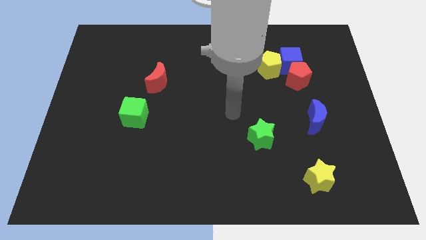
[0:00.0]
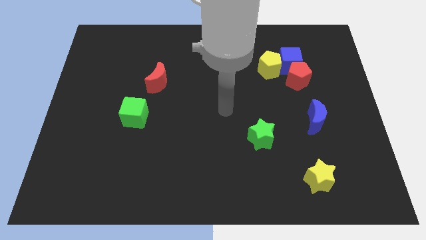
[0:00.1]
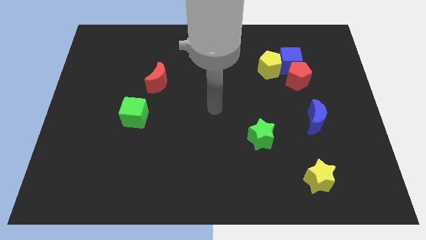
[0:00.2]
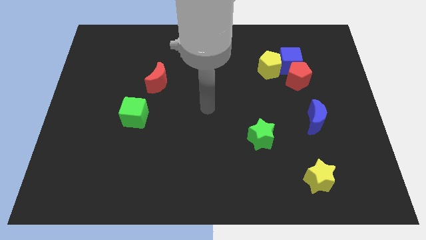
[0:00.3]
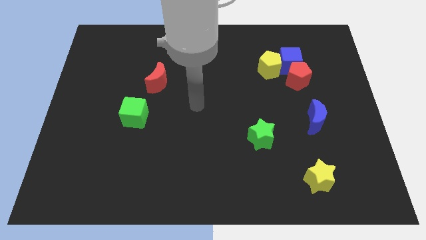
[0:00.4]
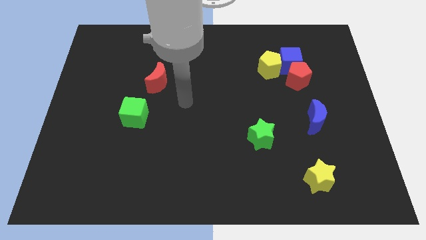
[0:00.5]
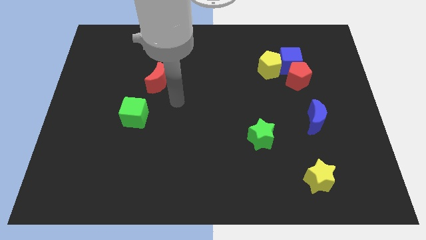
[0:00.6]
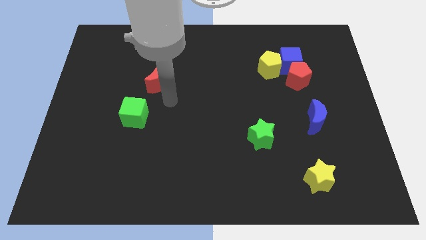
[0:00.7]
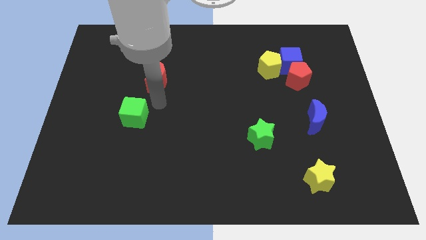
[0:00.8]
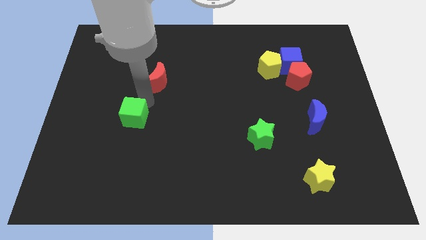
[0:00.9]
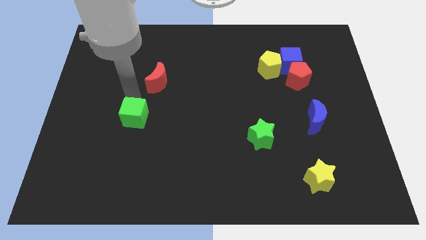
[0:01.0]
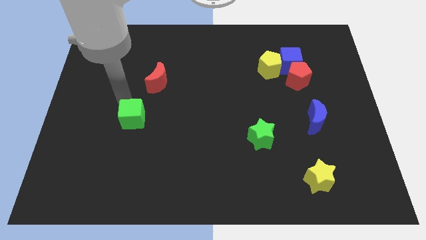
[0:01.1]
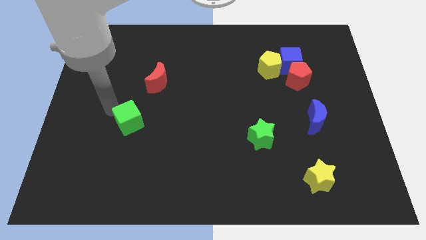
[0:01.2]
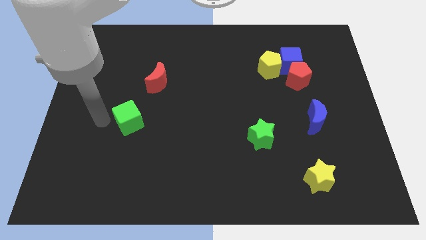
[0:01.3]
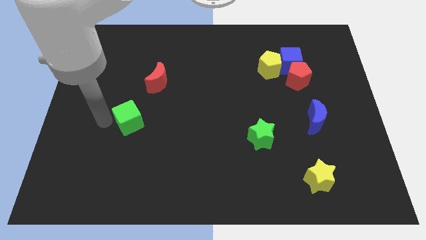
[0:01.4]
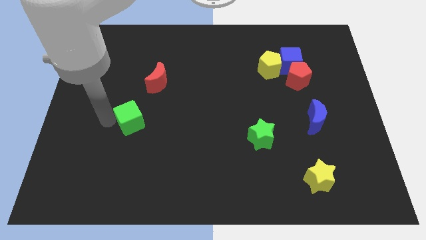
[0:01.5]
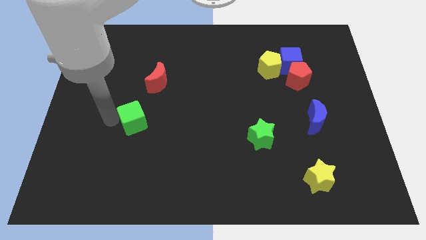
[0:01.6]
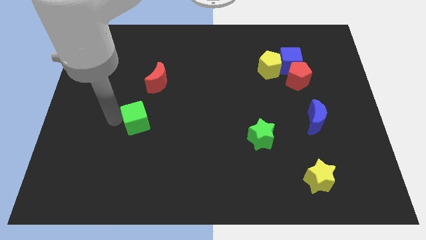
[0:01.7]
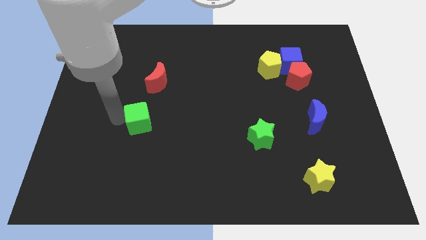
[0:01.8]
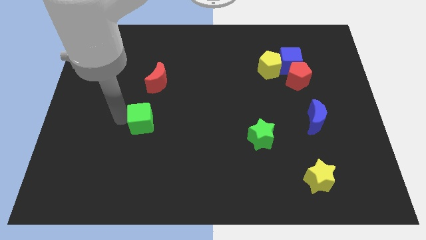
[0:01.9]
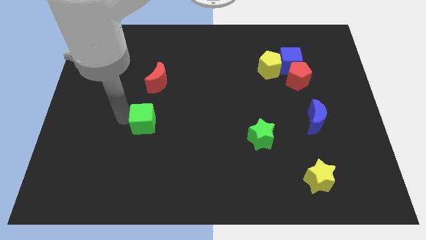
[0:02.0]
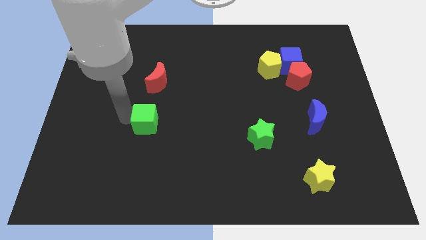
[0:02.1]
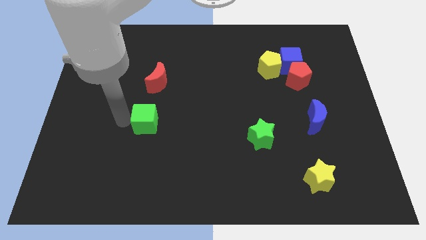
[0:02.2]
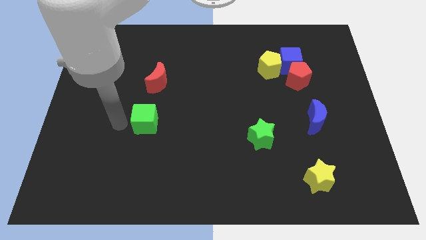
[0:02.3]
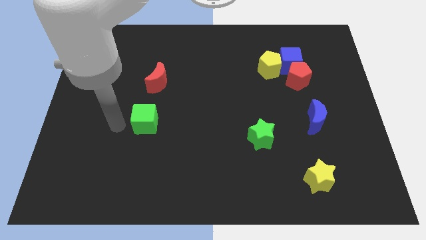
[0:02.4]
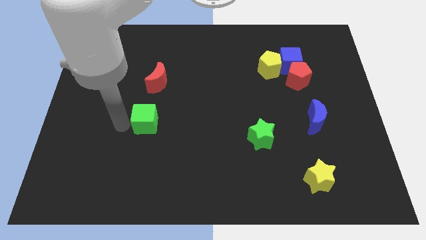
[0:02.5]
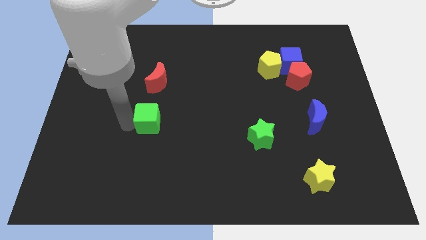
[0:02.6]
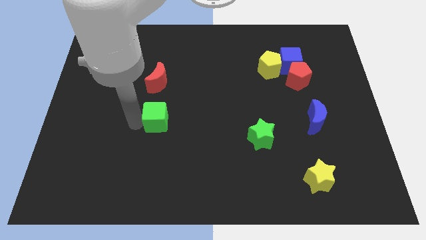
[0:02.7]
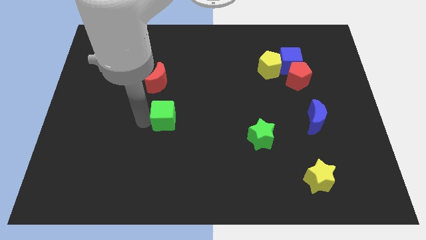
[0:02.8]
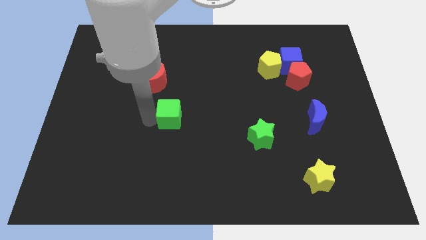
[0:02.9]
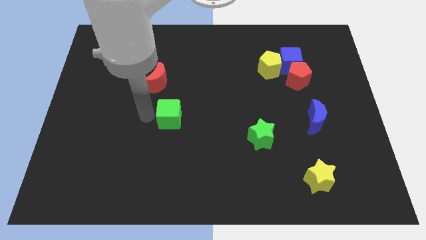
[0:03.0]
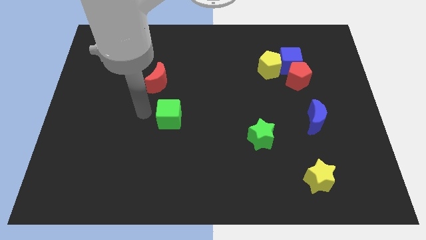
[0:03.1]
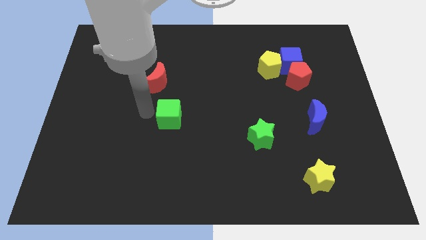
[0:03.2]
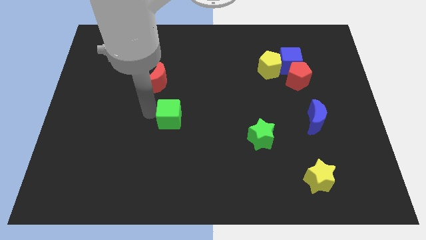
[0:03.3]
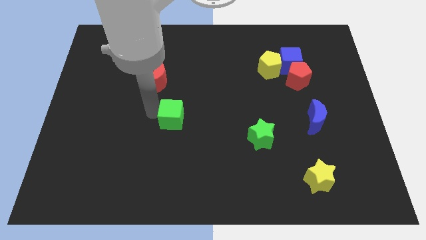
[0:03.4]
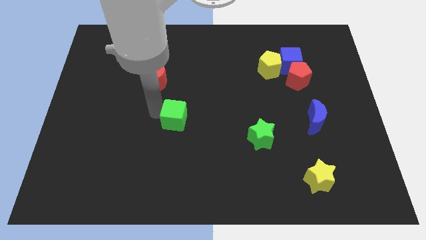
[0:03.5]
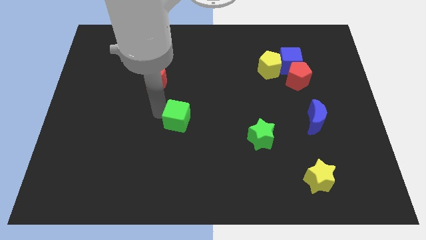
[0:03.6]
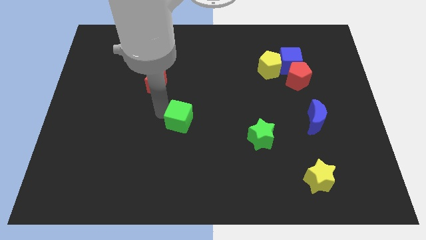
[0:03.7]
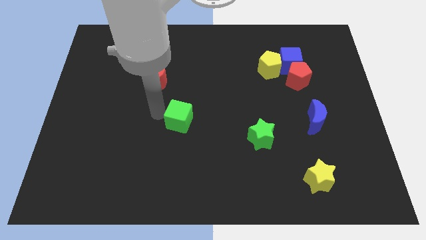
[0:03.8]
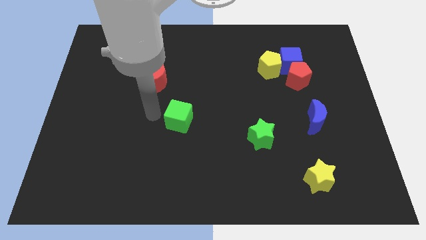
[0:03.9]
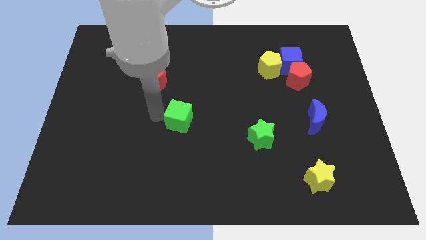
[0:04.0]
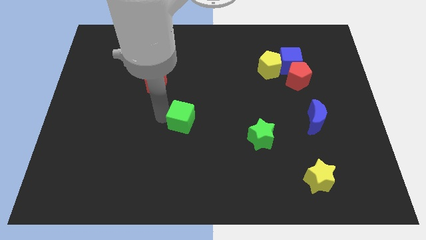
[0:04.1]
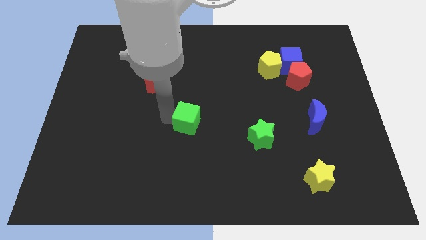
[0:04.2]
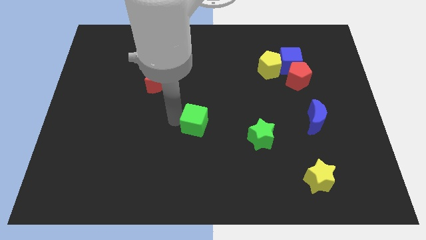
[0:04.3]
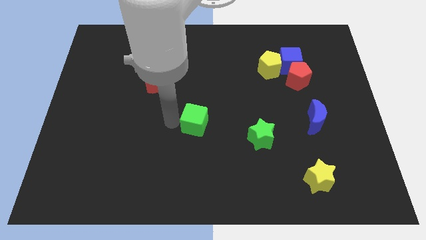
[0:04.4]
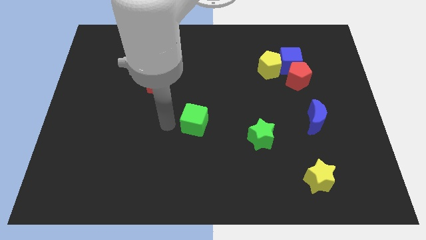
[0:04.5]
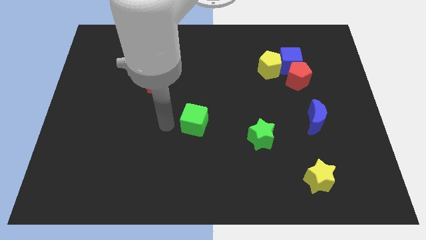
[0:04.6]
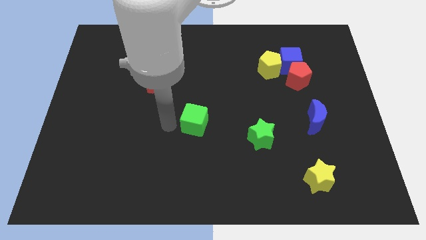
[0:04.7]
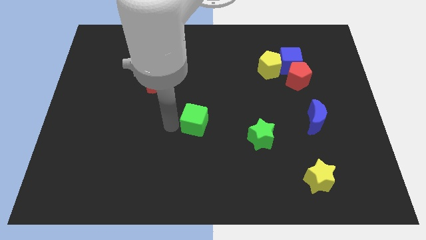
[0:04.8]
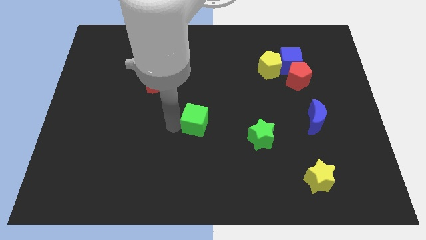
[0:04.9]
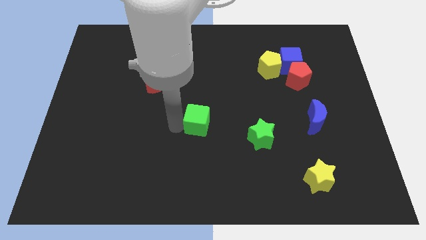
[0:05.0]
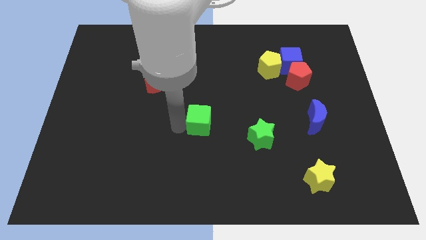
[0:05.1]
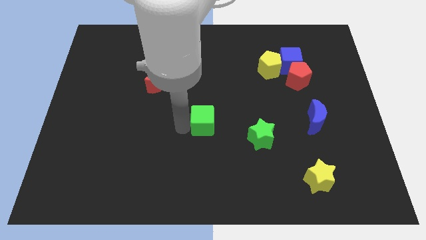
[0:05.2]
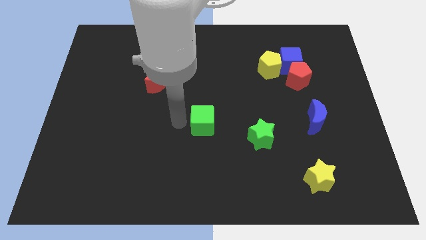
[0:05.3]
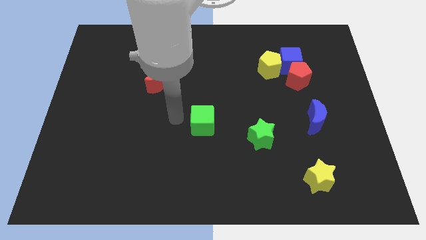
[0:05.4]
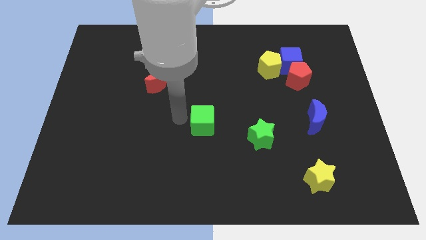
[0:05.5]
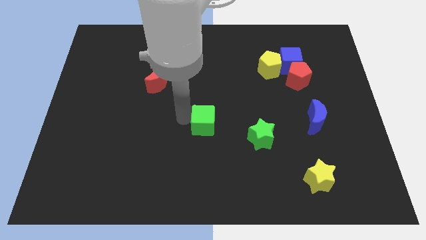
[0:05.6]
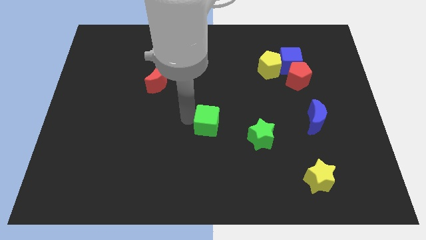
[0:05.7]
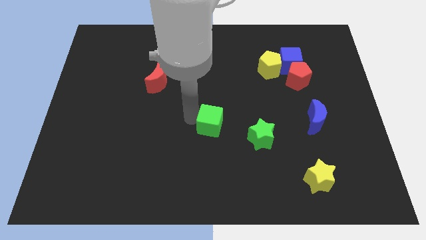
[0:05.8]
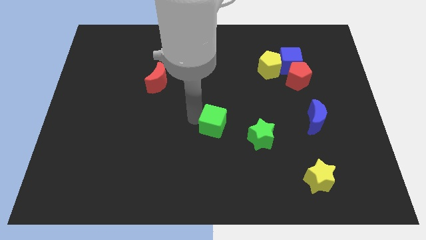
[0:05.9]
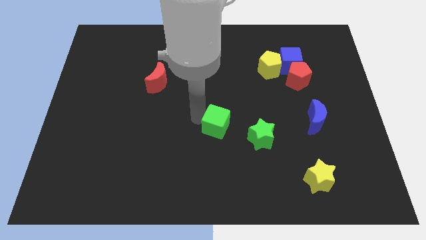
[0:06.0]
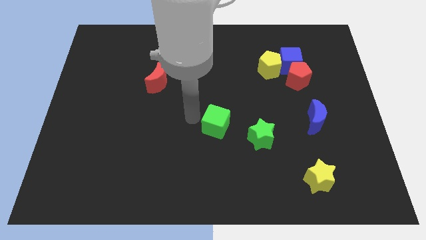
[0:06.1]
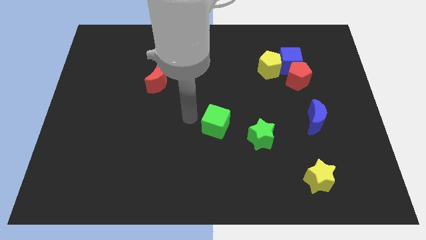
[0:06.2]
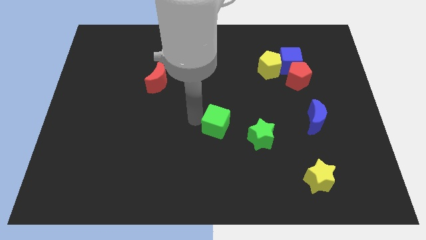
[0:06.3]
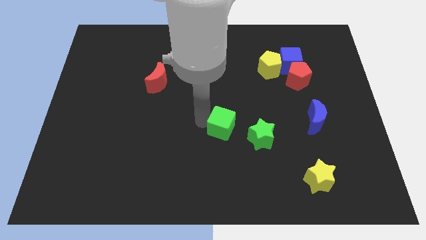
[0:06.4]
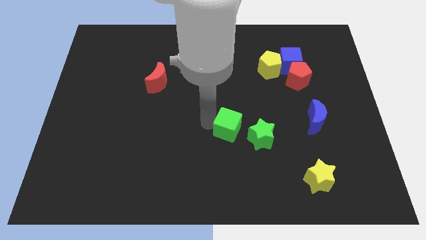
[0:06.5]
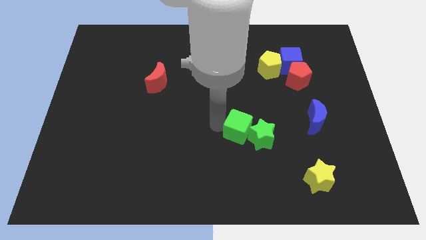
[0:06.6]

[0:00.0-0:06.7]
move the green cube towards the green star
